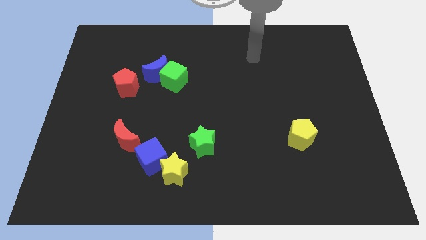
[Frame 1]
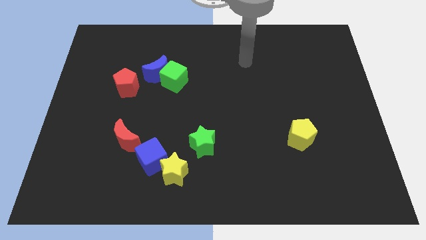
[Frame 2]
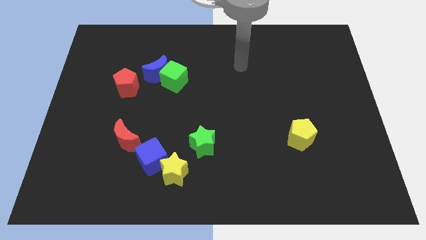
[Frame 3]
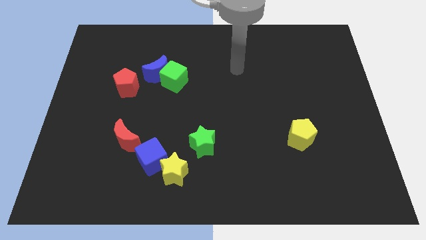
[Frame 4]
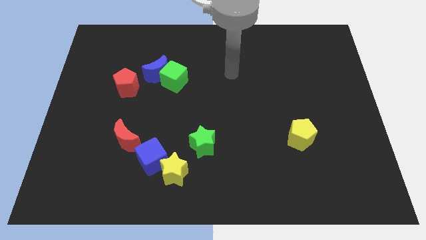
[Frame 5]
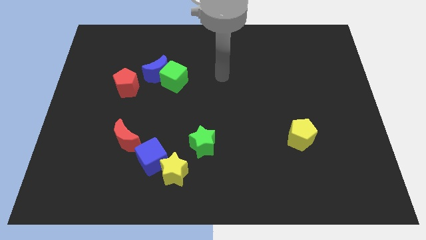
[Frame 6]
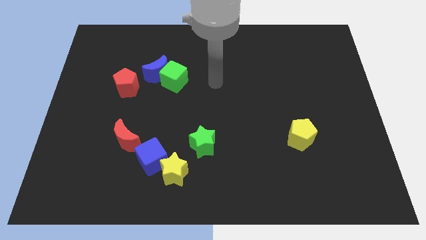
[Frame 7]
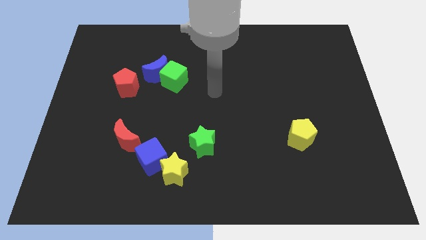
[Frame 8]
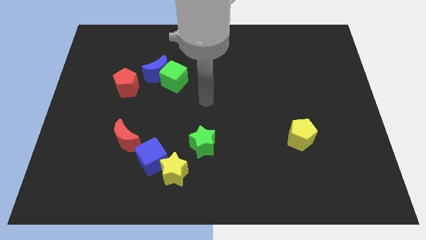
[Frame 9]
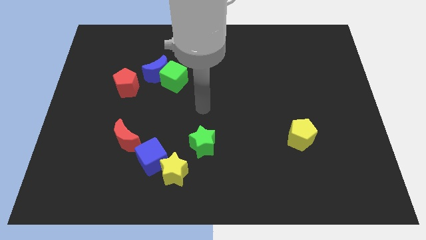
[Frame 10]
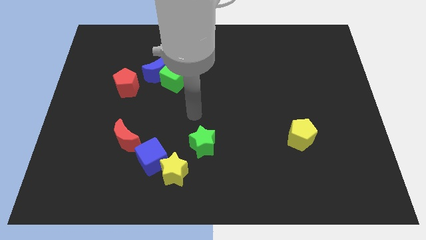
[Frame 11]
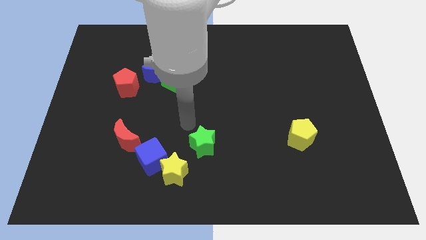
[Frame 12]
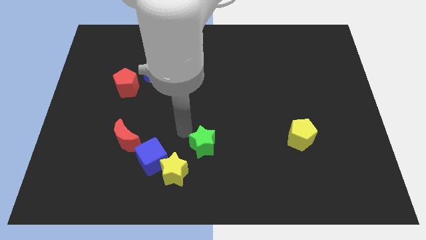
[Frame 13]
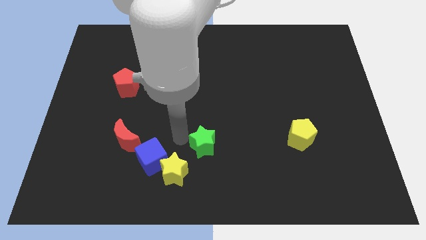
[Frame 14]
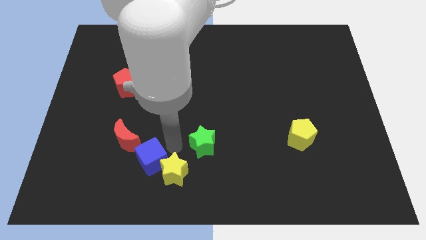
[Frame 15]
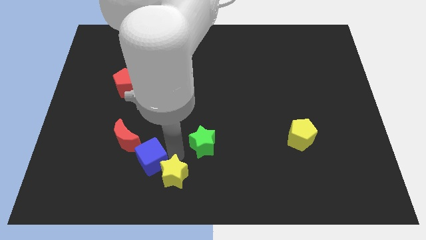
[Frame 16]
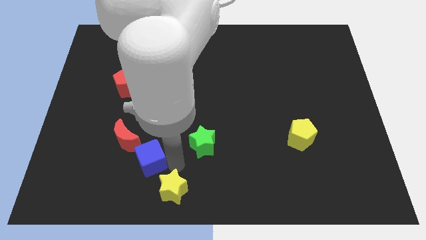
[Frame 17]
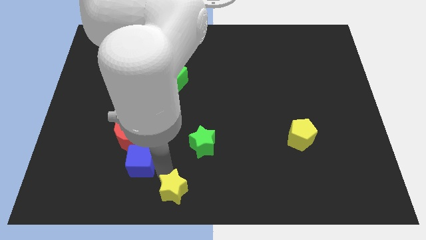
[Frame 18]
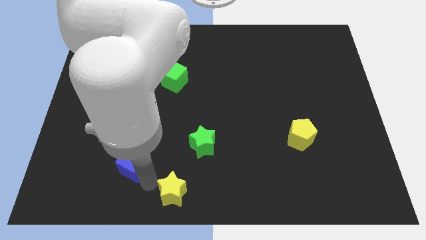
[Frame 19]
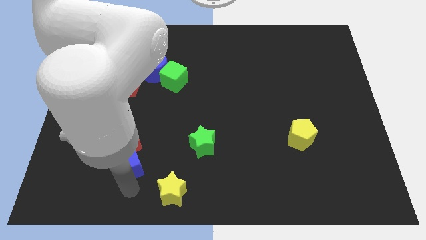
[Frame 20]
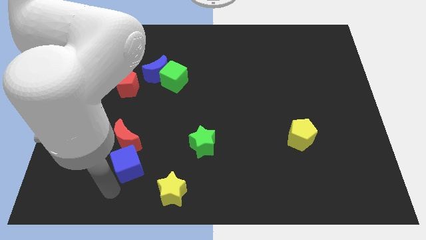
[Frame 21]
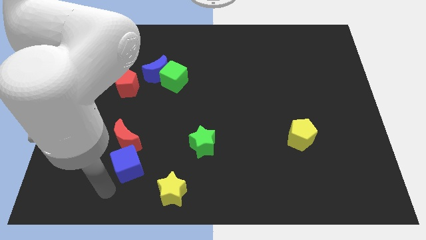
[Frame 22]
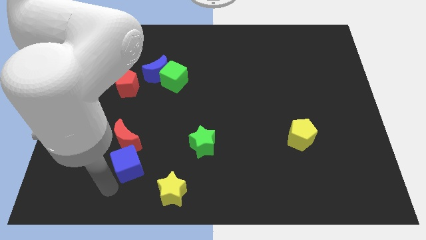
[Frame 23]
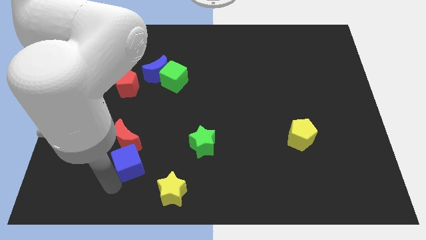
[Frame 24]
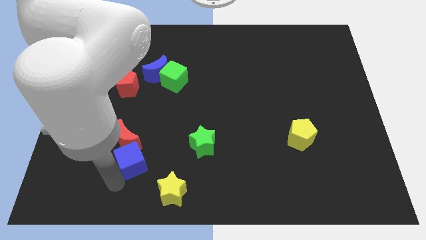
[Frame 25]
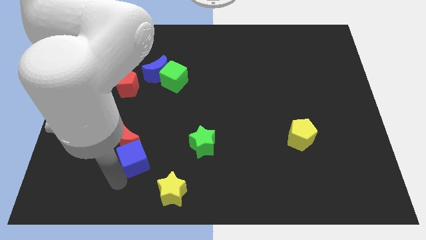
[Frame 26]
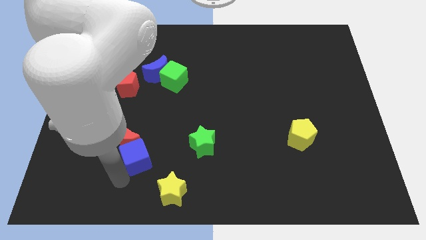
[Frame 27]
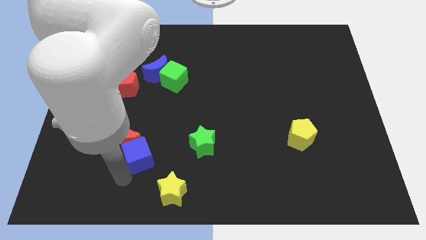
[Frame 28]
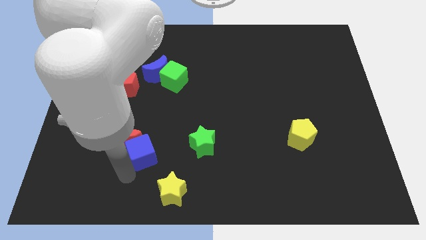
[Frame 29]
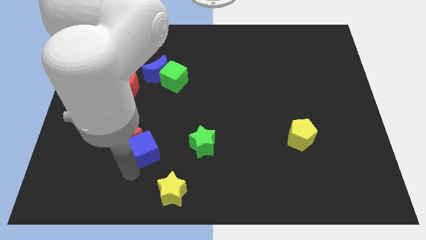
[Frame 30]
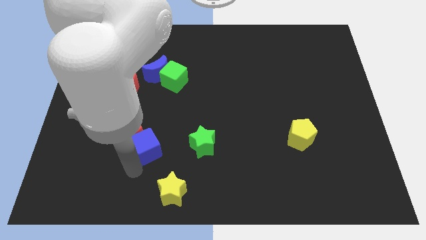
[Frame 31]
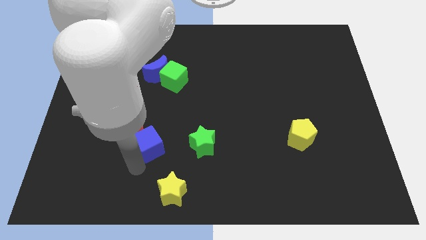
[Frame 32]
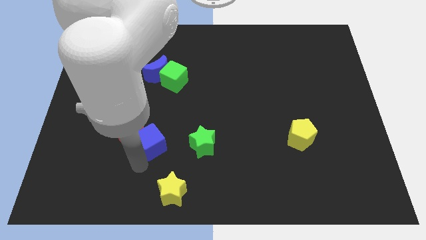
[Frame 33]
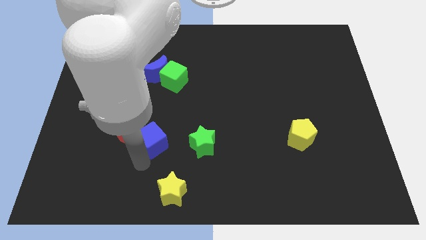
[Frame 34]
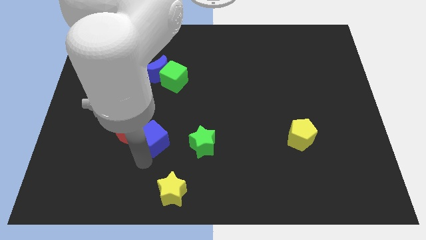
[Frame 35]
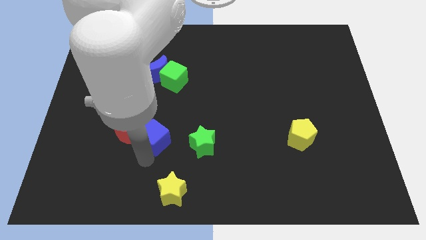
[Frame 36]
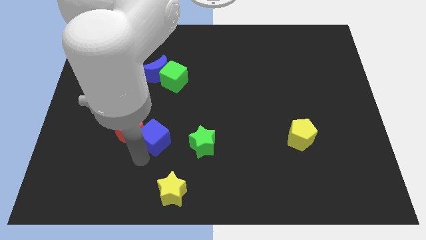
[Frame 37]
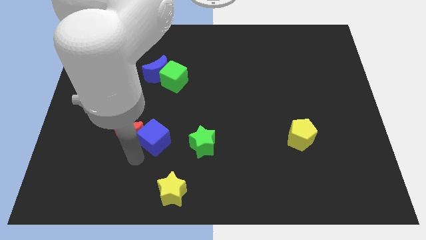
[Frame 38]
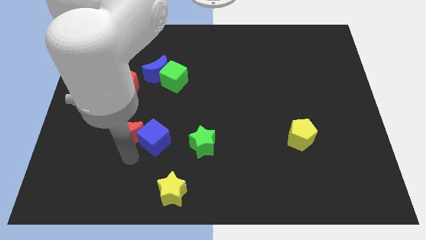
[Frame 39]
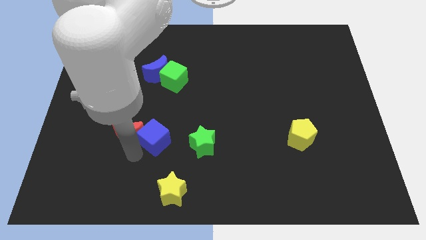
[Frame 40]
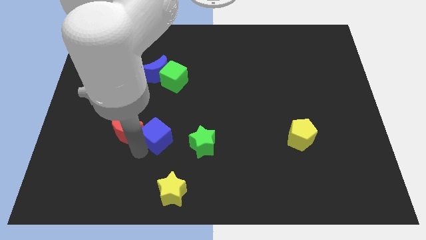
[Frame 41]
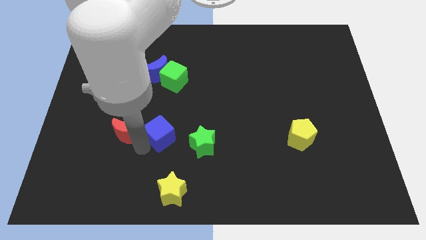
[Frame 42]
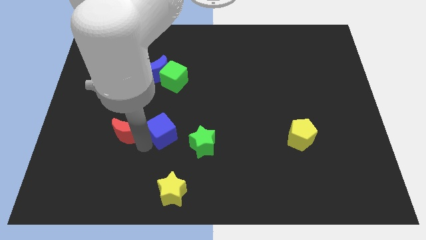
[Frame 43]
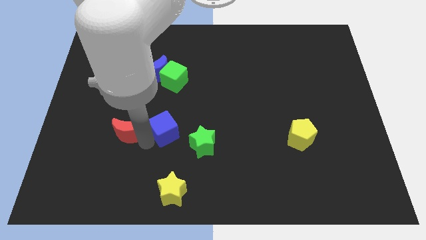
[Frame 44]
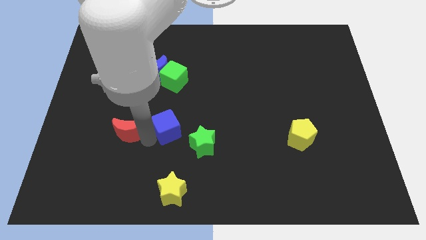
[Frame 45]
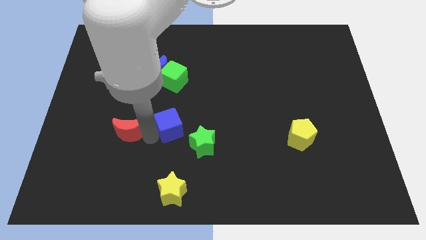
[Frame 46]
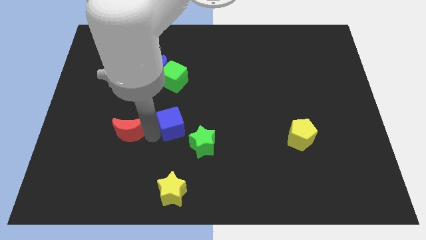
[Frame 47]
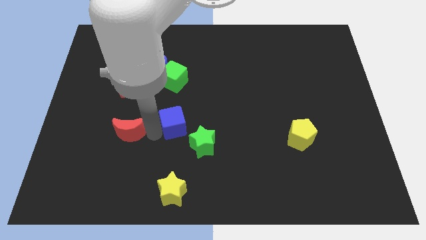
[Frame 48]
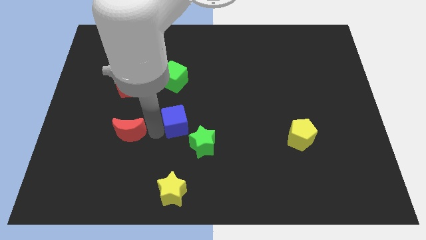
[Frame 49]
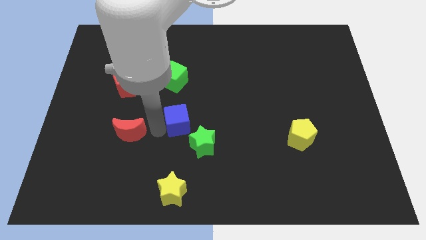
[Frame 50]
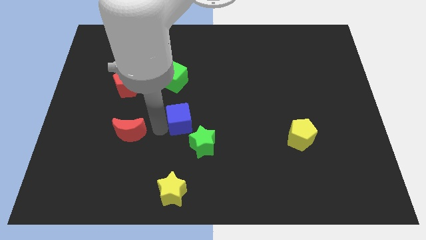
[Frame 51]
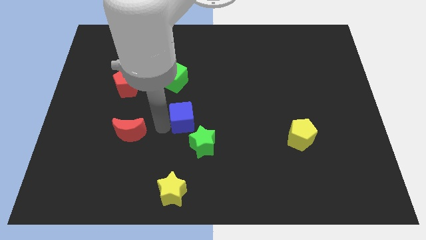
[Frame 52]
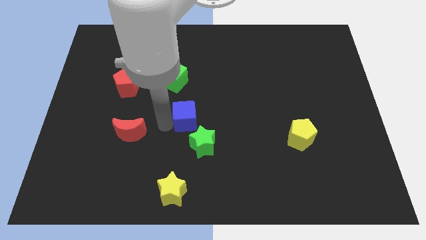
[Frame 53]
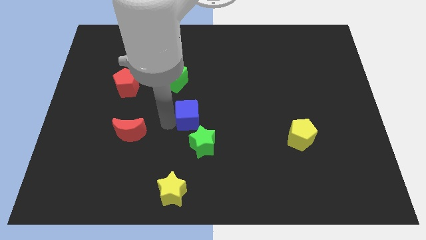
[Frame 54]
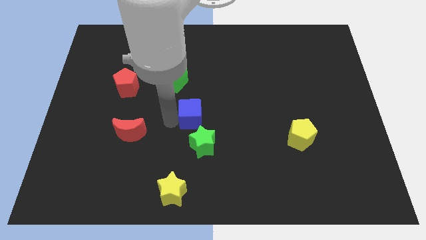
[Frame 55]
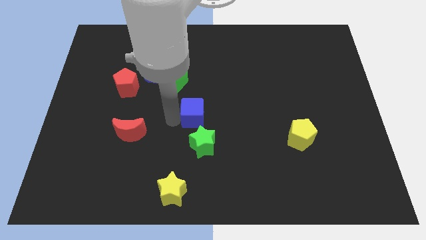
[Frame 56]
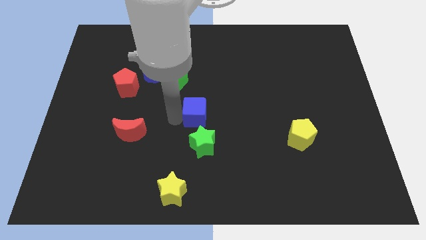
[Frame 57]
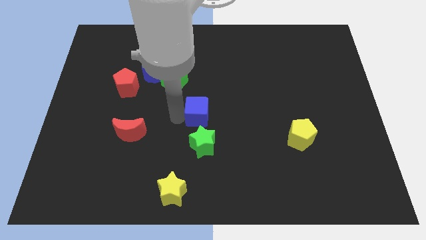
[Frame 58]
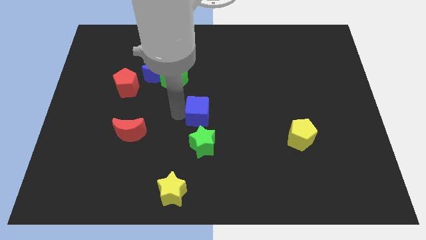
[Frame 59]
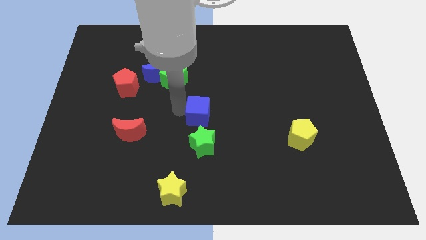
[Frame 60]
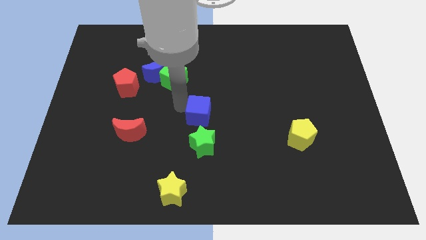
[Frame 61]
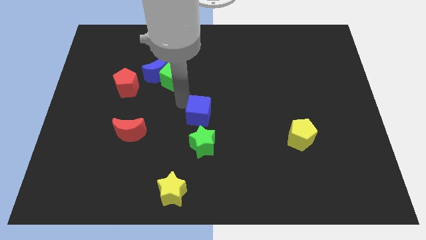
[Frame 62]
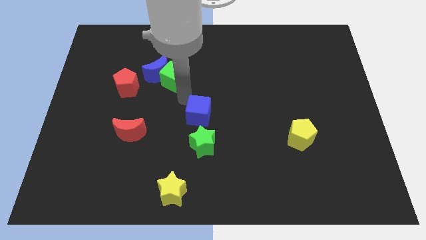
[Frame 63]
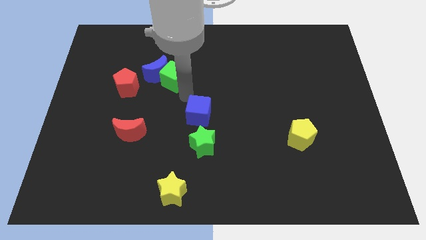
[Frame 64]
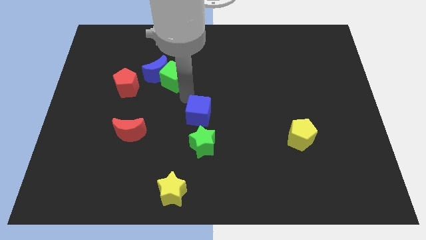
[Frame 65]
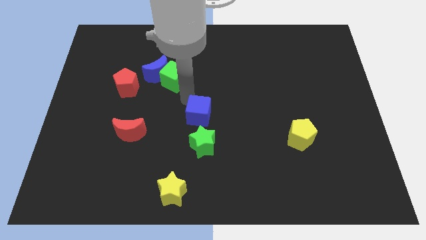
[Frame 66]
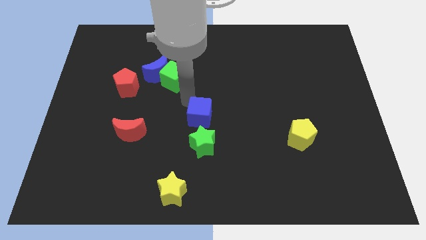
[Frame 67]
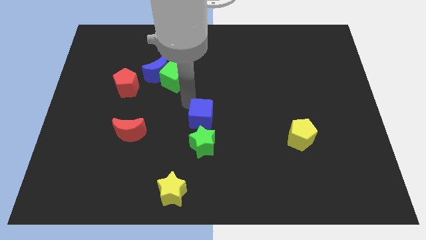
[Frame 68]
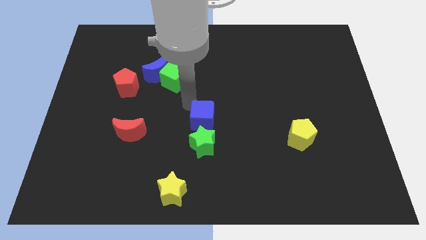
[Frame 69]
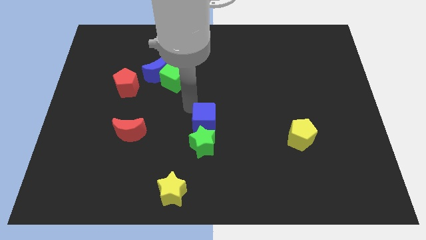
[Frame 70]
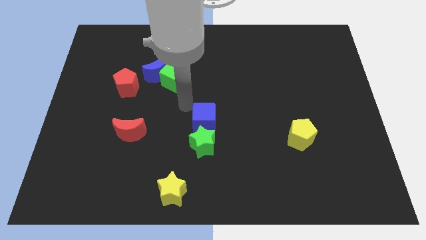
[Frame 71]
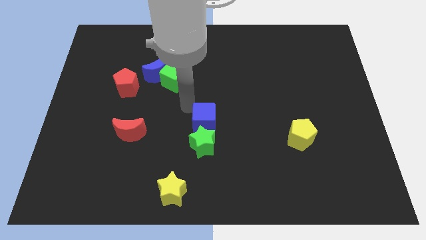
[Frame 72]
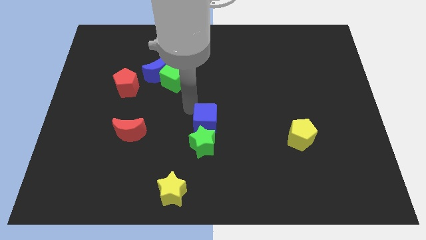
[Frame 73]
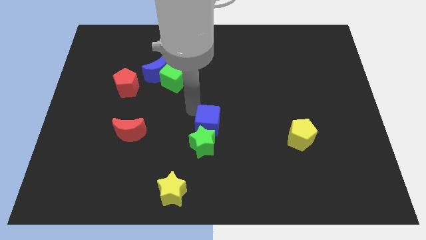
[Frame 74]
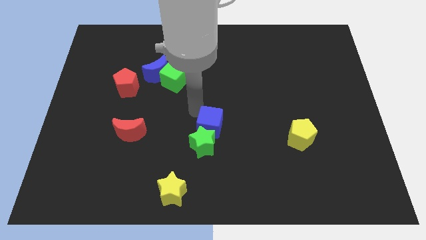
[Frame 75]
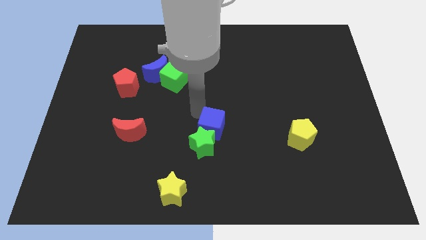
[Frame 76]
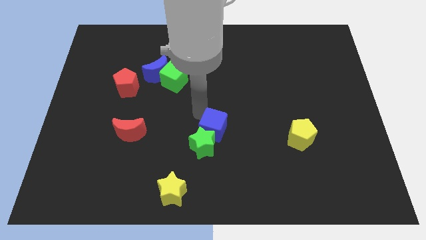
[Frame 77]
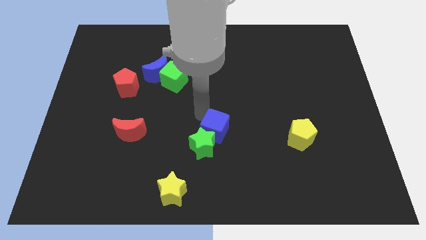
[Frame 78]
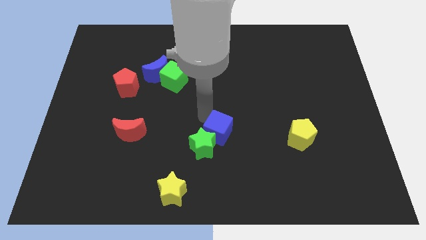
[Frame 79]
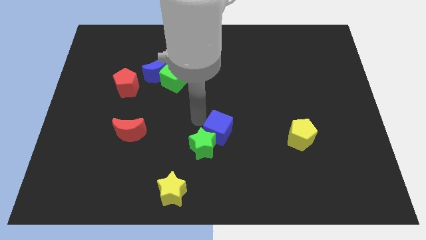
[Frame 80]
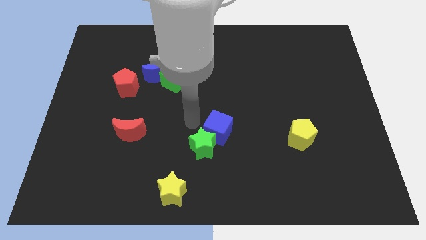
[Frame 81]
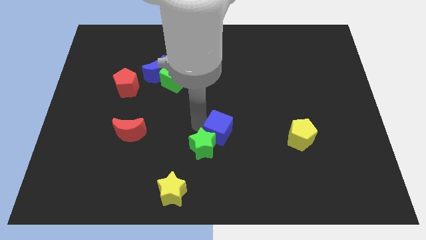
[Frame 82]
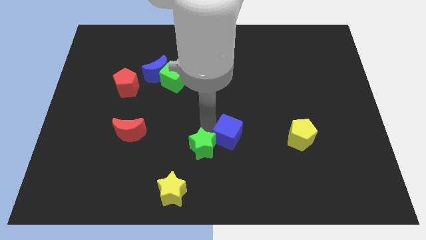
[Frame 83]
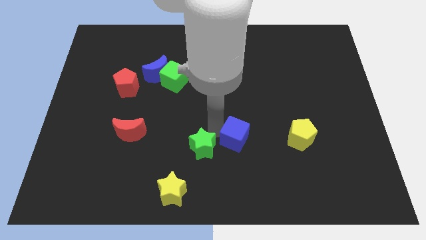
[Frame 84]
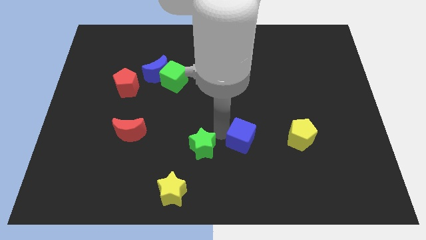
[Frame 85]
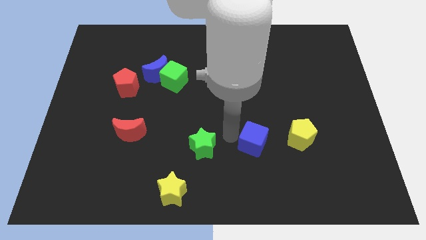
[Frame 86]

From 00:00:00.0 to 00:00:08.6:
push the blue cube to the right

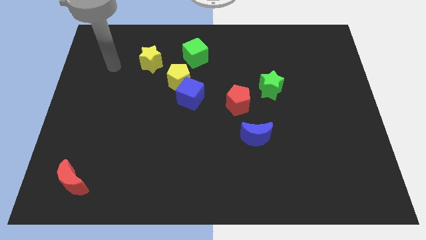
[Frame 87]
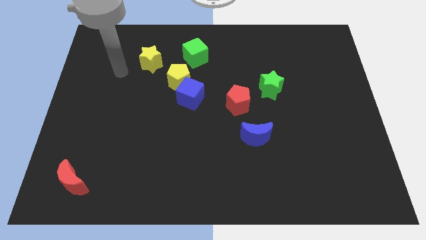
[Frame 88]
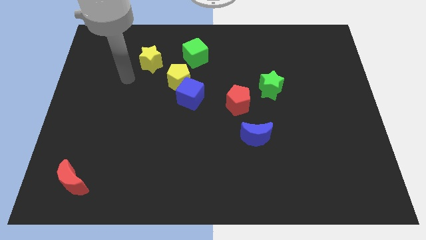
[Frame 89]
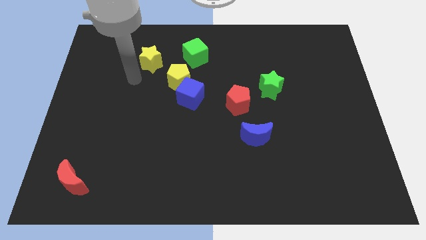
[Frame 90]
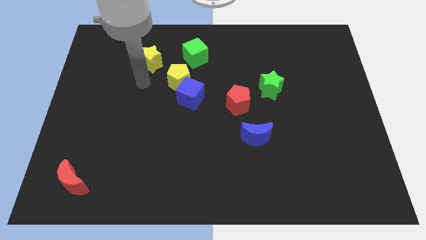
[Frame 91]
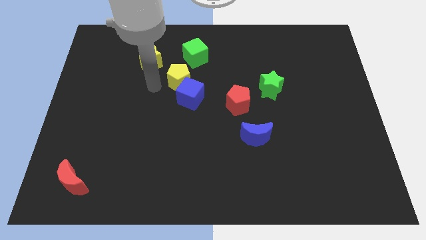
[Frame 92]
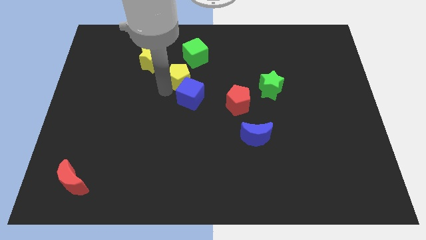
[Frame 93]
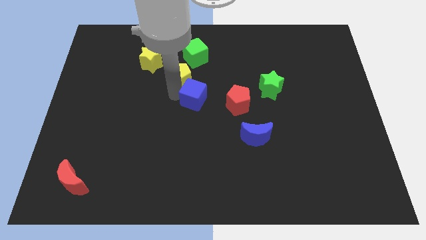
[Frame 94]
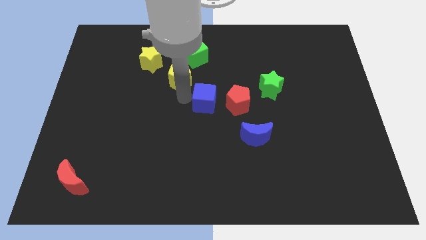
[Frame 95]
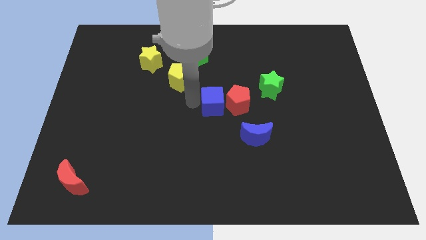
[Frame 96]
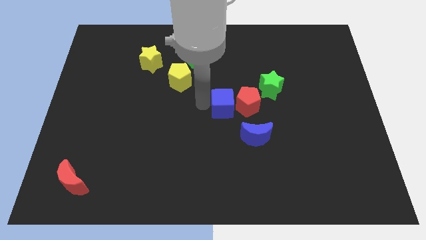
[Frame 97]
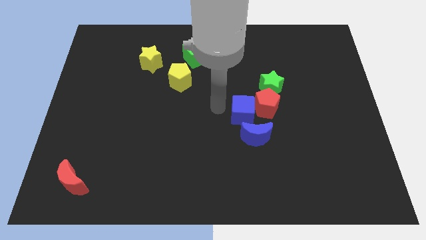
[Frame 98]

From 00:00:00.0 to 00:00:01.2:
push the red pentagon right a little
